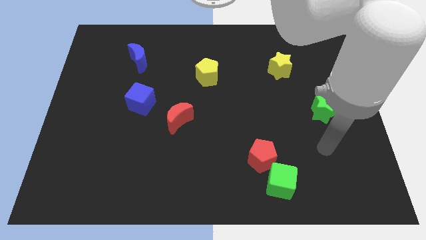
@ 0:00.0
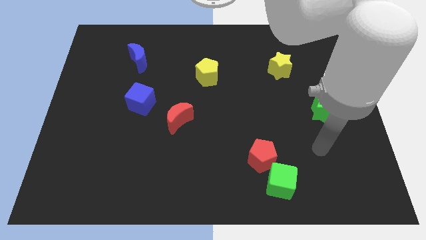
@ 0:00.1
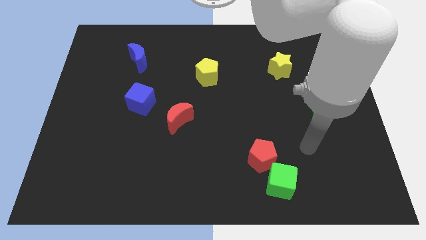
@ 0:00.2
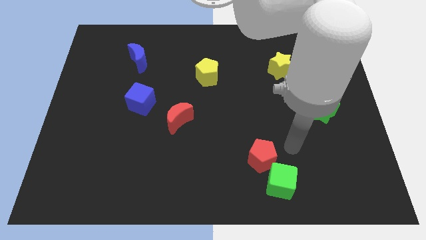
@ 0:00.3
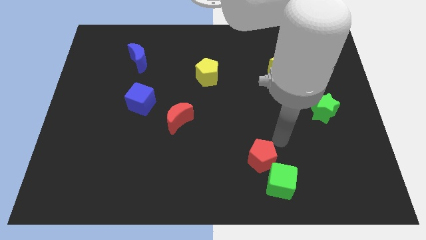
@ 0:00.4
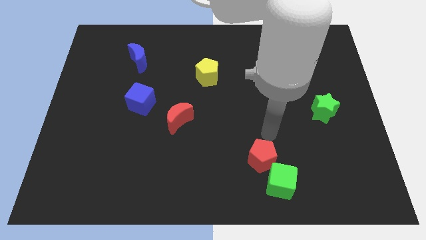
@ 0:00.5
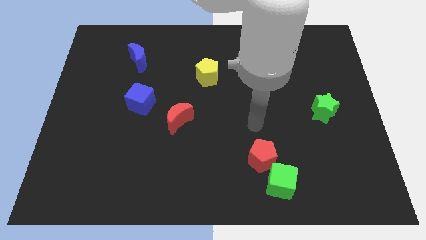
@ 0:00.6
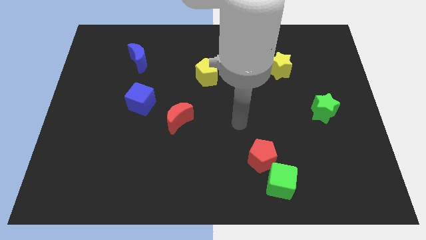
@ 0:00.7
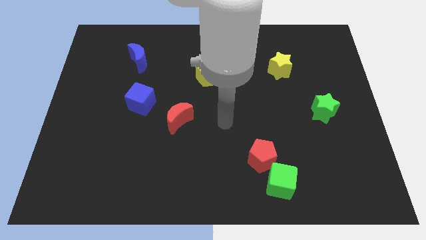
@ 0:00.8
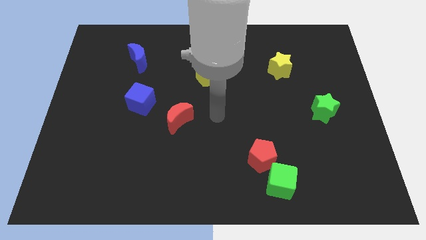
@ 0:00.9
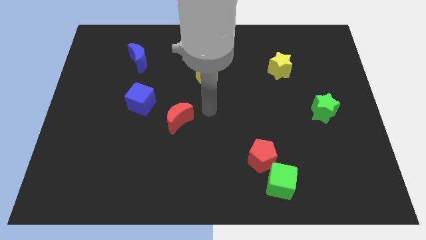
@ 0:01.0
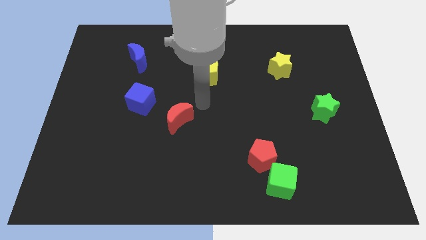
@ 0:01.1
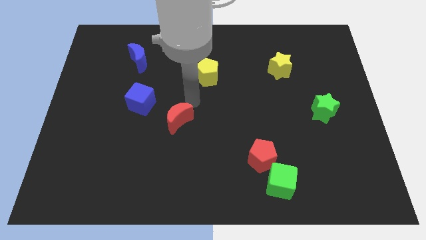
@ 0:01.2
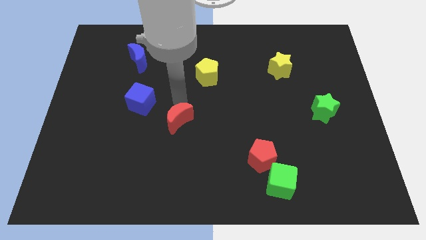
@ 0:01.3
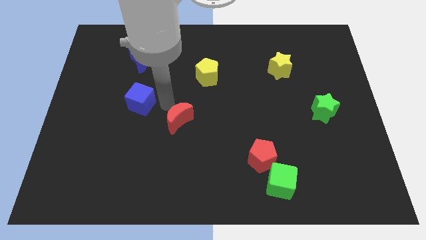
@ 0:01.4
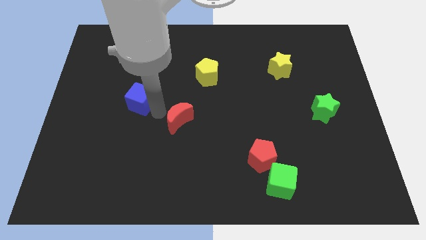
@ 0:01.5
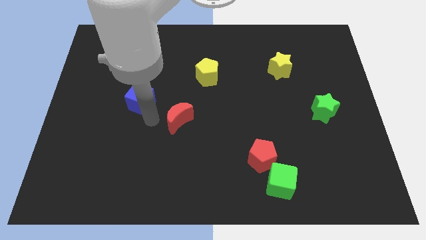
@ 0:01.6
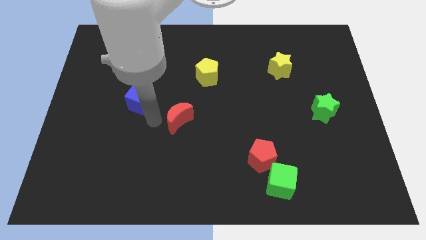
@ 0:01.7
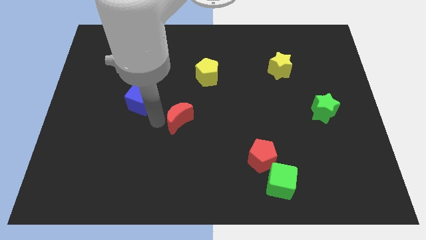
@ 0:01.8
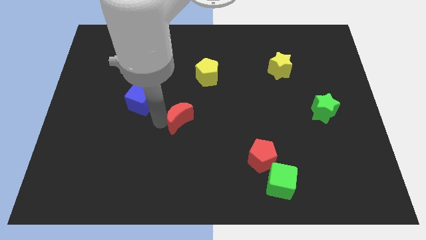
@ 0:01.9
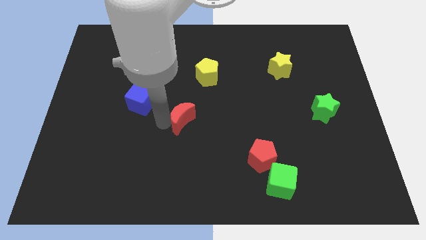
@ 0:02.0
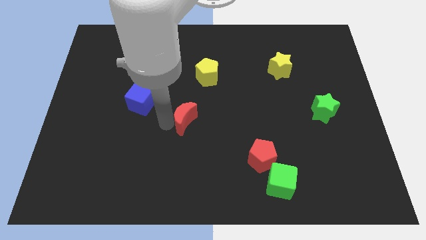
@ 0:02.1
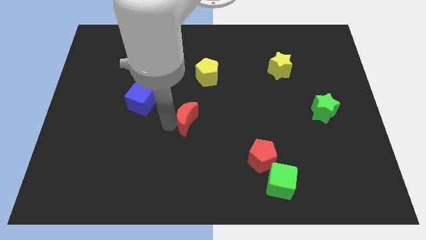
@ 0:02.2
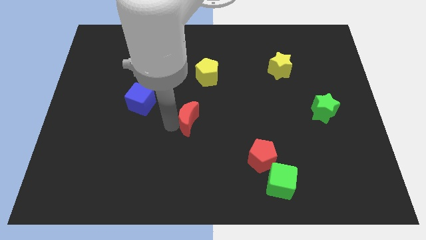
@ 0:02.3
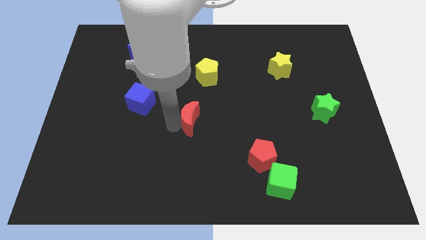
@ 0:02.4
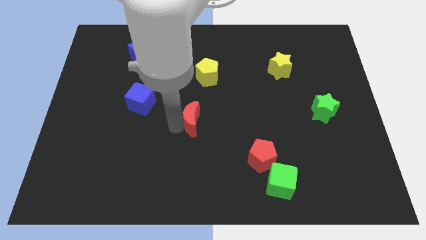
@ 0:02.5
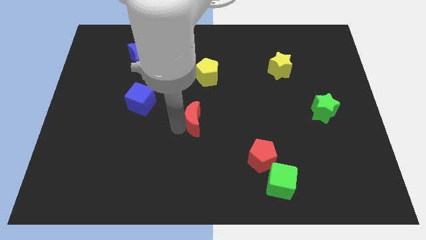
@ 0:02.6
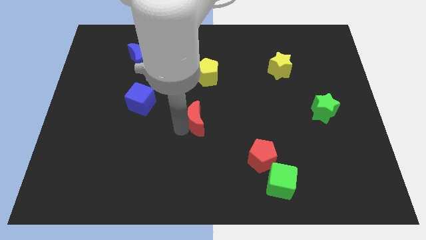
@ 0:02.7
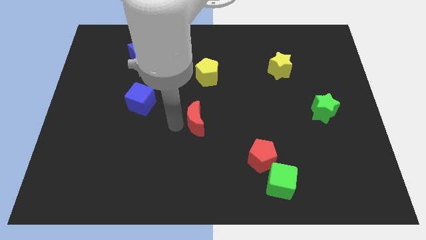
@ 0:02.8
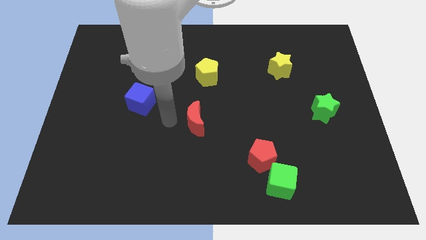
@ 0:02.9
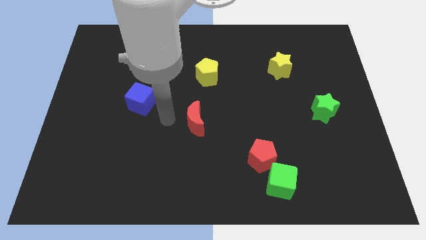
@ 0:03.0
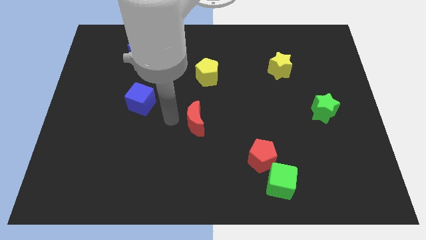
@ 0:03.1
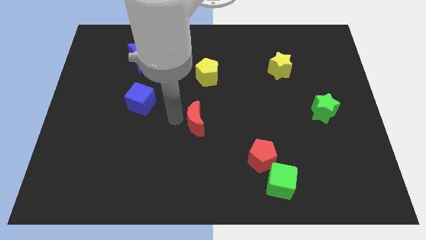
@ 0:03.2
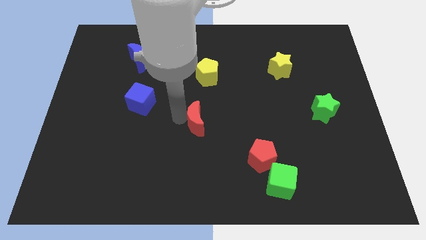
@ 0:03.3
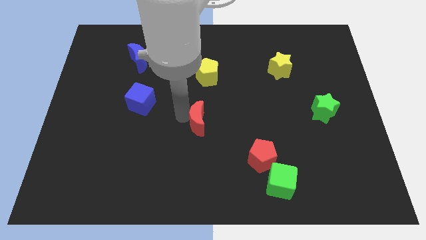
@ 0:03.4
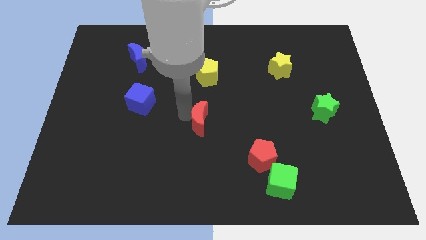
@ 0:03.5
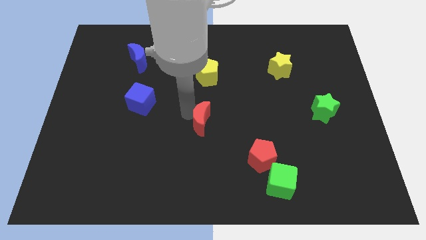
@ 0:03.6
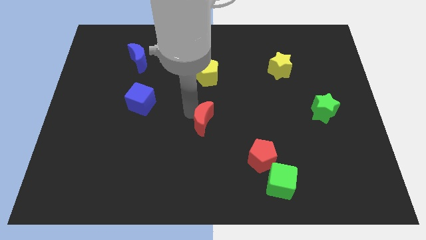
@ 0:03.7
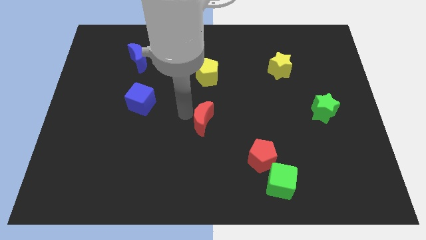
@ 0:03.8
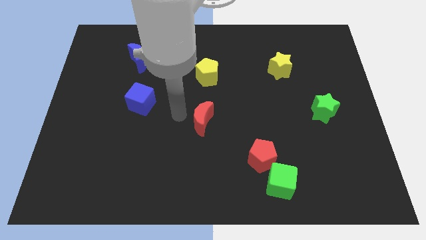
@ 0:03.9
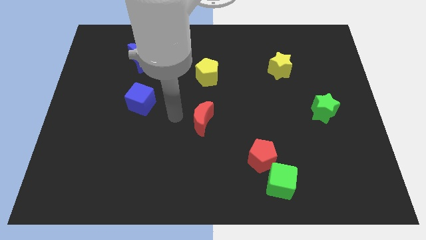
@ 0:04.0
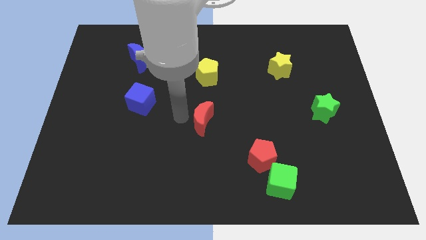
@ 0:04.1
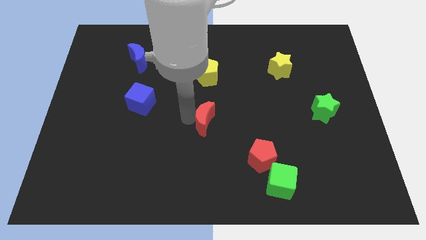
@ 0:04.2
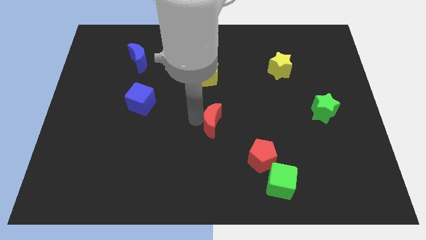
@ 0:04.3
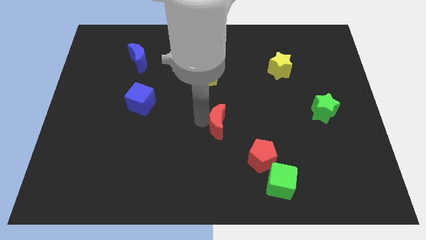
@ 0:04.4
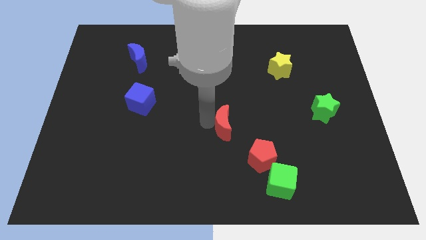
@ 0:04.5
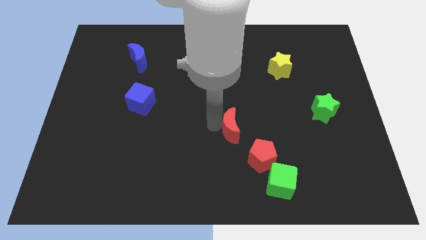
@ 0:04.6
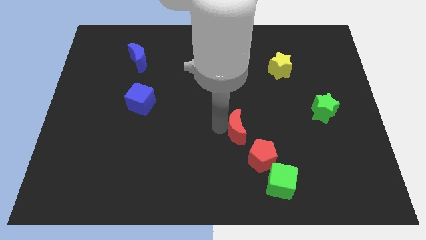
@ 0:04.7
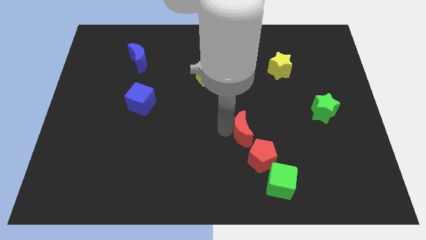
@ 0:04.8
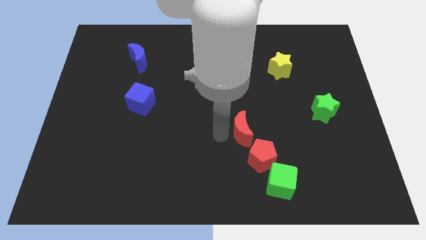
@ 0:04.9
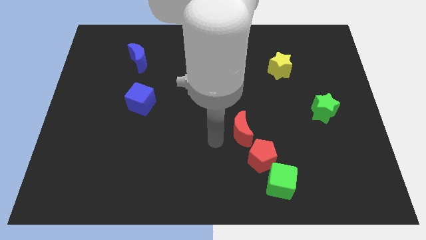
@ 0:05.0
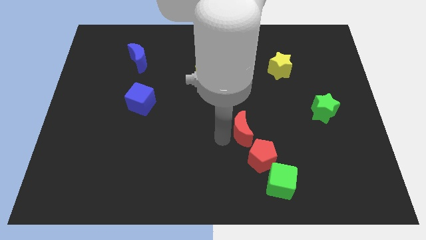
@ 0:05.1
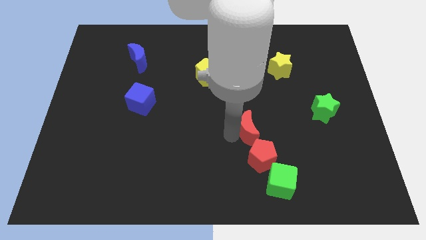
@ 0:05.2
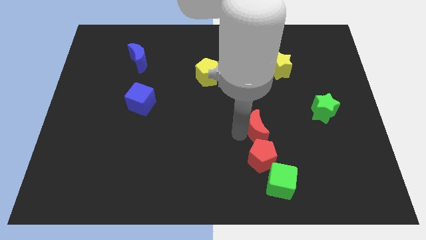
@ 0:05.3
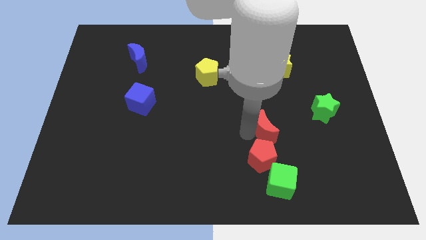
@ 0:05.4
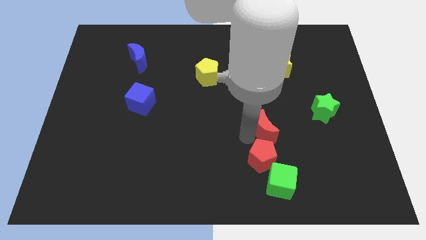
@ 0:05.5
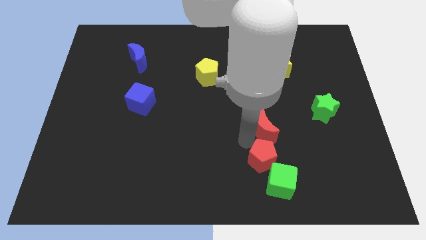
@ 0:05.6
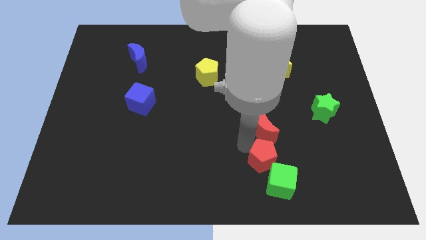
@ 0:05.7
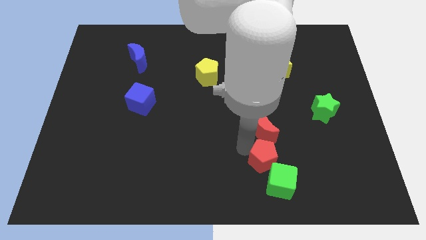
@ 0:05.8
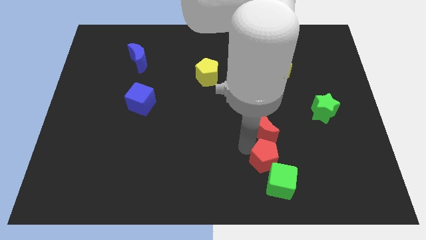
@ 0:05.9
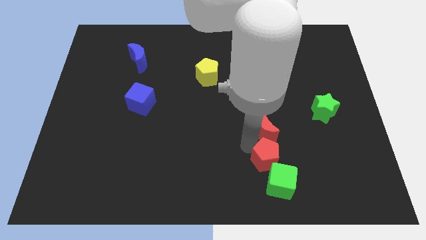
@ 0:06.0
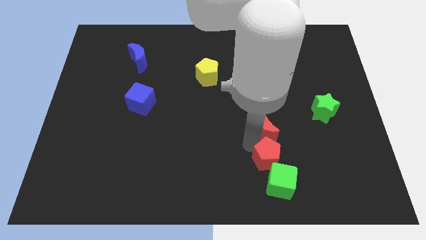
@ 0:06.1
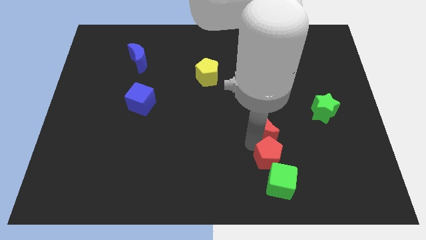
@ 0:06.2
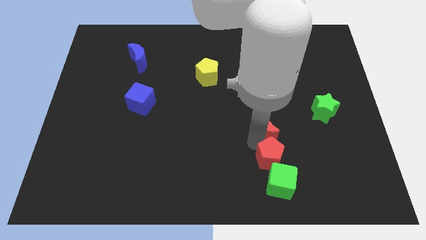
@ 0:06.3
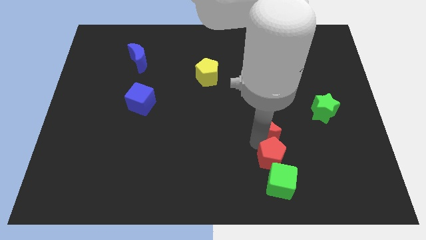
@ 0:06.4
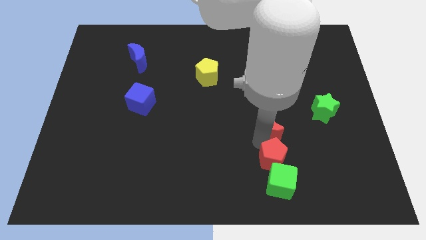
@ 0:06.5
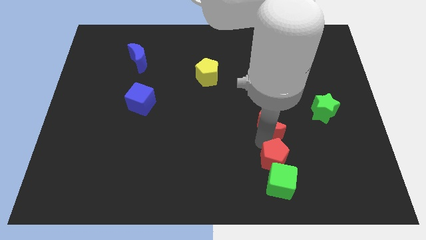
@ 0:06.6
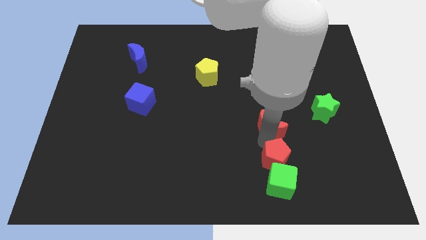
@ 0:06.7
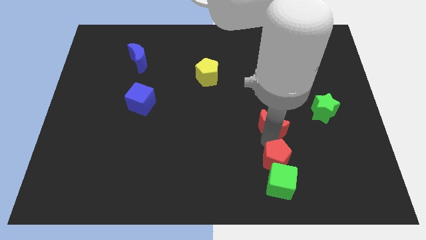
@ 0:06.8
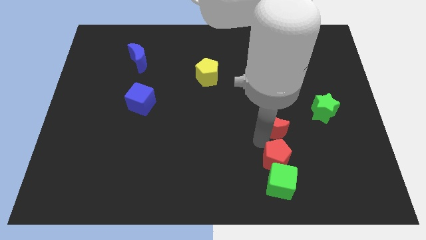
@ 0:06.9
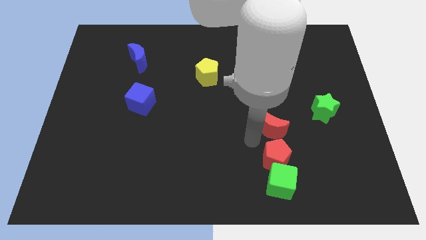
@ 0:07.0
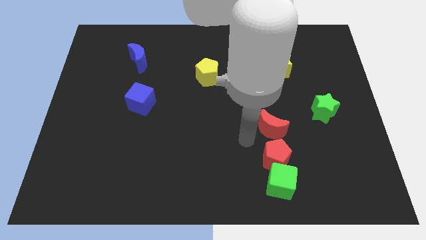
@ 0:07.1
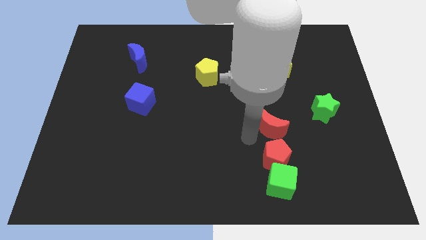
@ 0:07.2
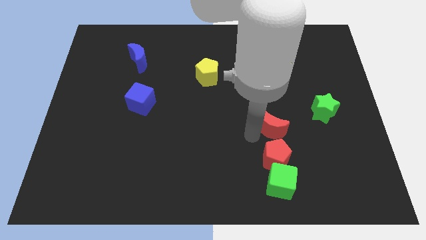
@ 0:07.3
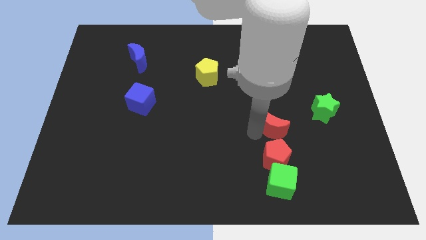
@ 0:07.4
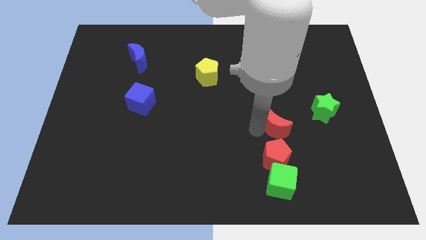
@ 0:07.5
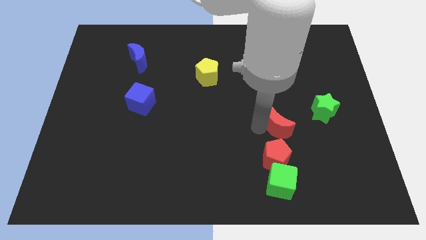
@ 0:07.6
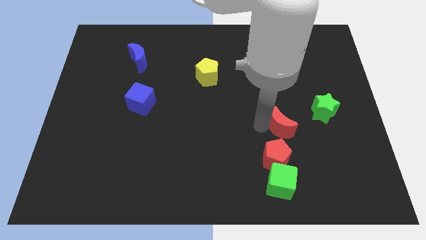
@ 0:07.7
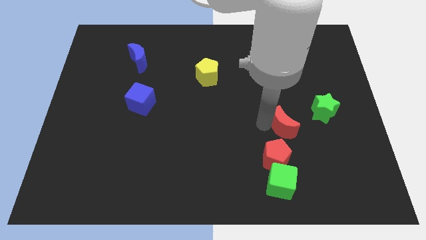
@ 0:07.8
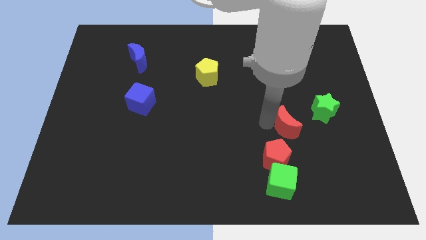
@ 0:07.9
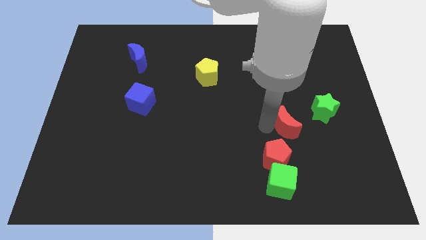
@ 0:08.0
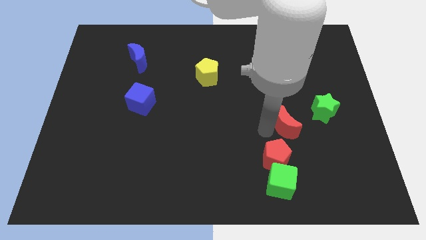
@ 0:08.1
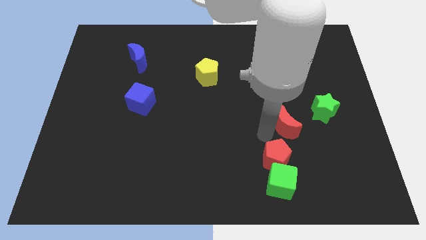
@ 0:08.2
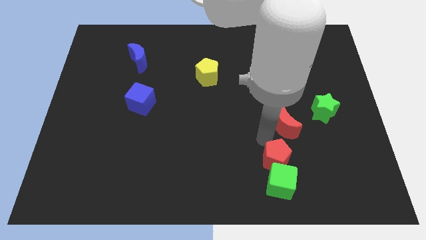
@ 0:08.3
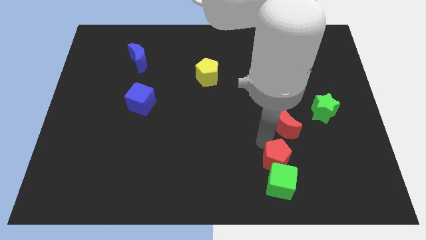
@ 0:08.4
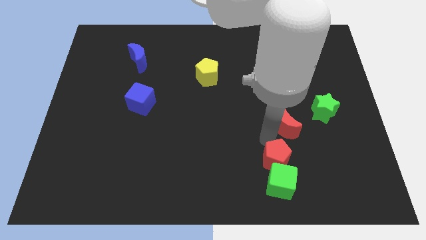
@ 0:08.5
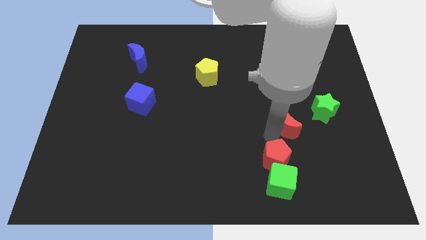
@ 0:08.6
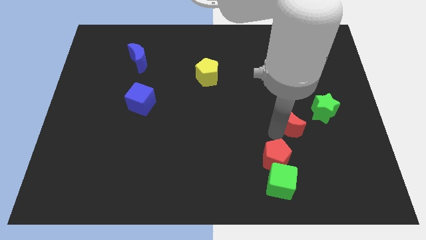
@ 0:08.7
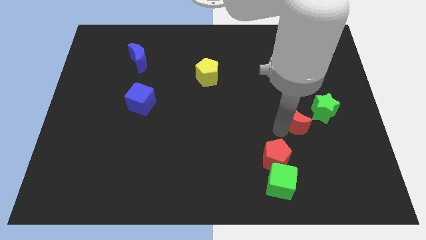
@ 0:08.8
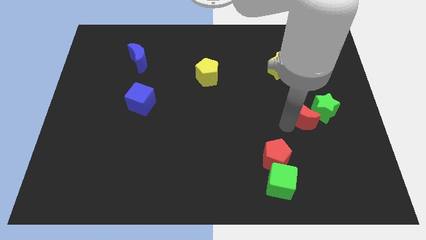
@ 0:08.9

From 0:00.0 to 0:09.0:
push the red moon close to the green star
